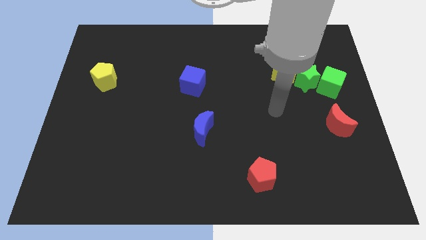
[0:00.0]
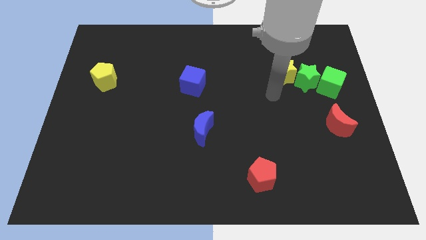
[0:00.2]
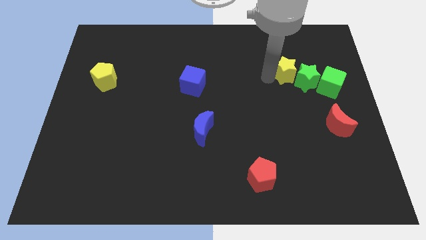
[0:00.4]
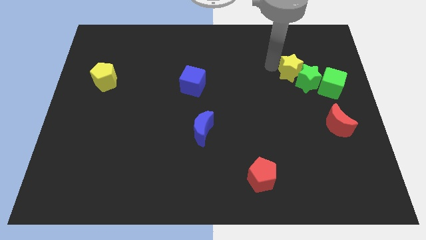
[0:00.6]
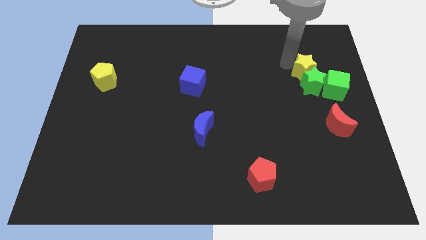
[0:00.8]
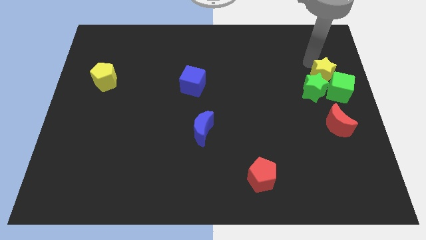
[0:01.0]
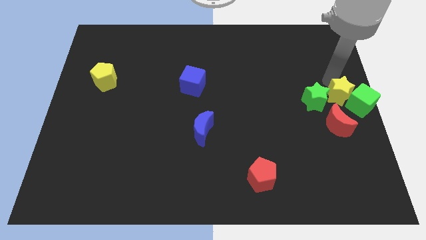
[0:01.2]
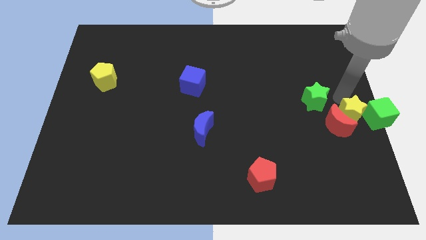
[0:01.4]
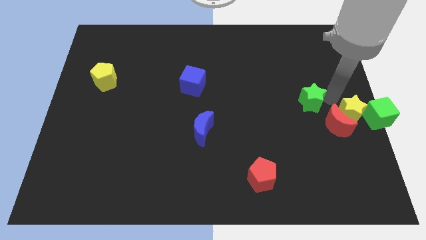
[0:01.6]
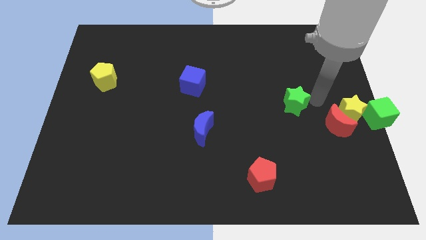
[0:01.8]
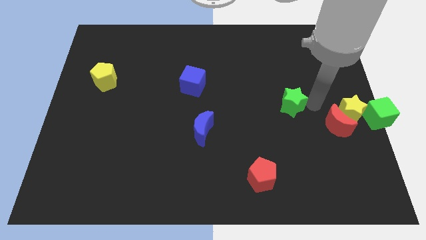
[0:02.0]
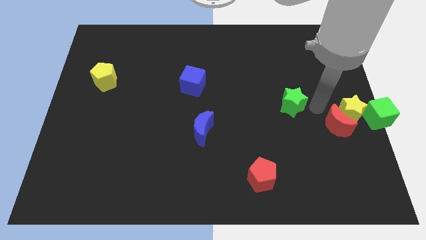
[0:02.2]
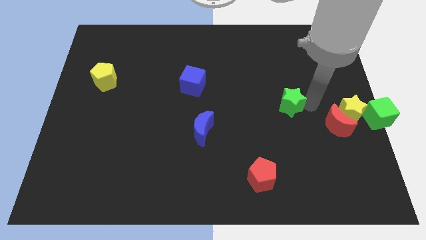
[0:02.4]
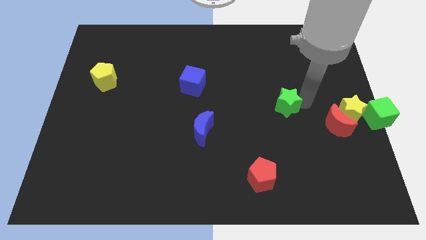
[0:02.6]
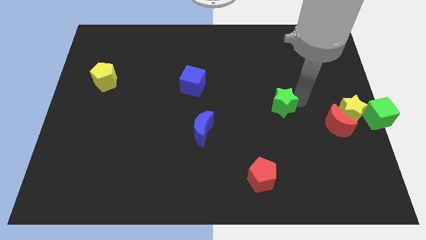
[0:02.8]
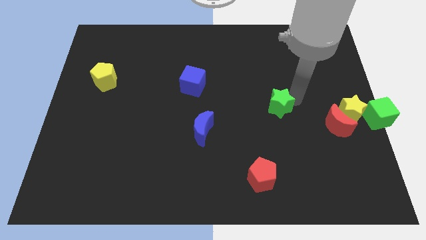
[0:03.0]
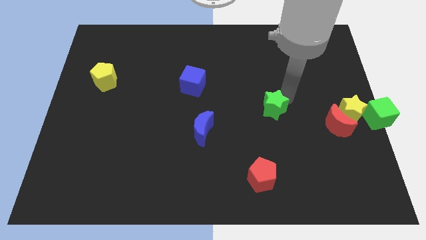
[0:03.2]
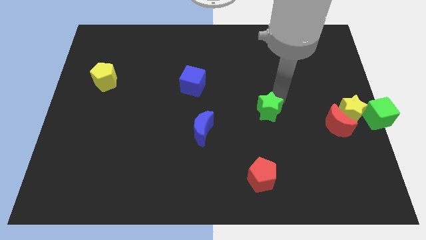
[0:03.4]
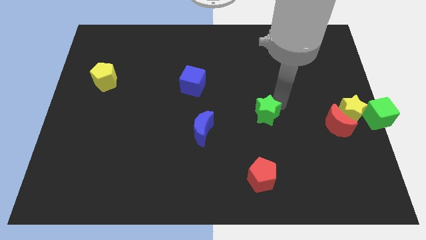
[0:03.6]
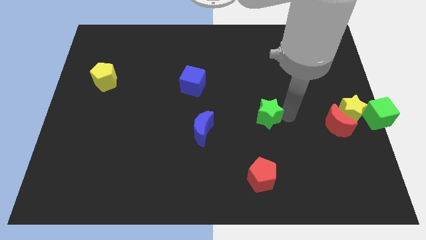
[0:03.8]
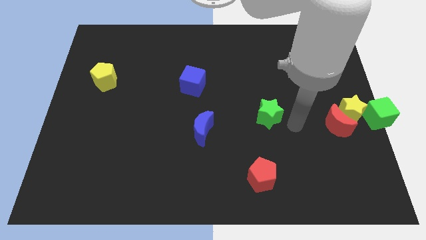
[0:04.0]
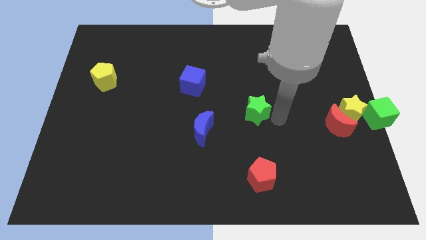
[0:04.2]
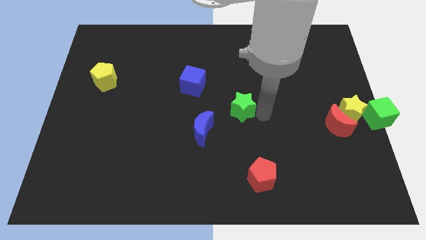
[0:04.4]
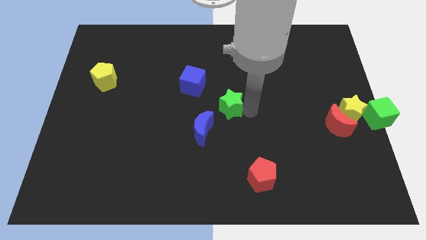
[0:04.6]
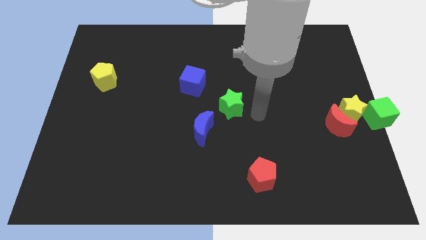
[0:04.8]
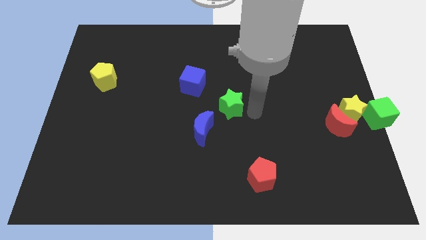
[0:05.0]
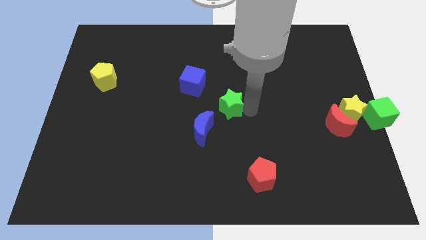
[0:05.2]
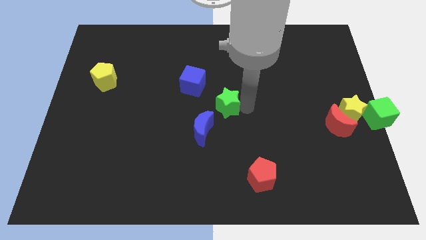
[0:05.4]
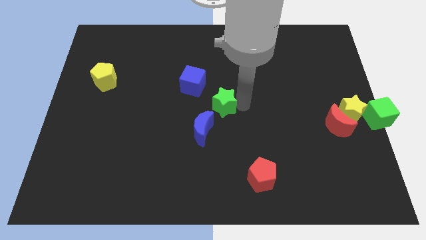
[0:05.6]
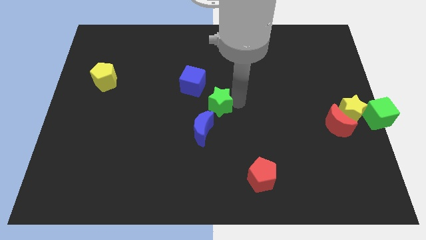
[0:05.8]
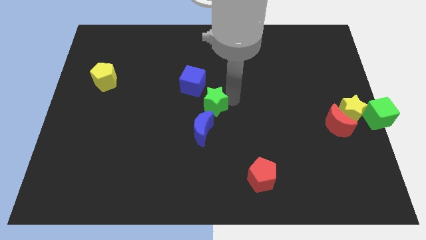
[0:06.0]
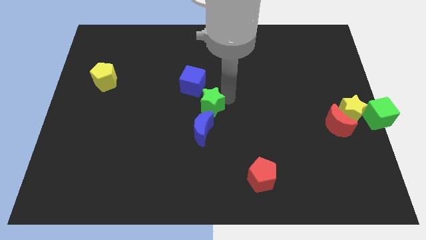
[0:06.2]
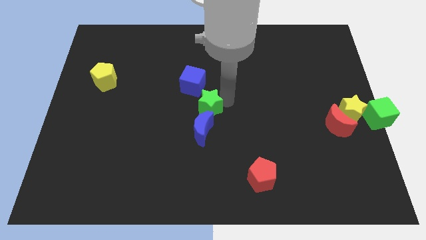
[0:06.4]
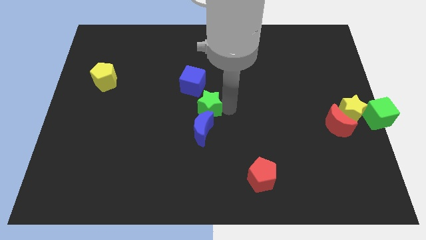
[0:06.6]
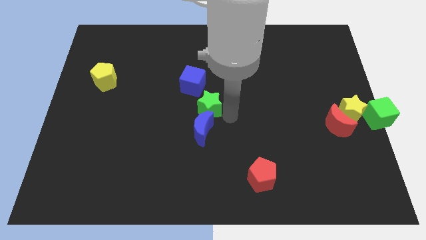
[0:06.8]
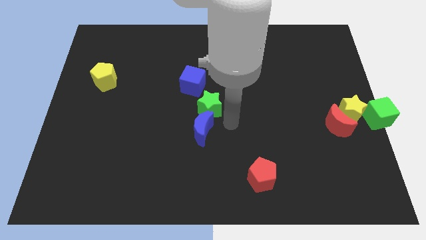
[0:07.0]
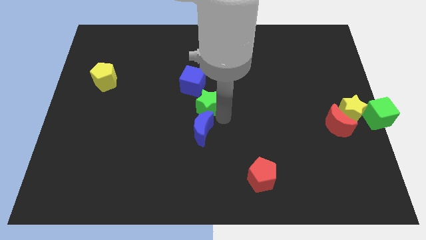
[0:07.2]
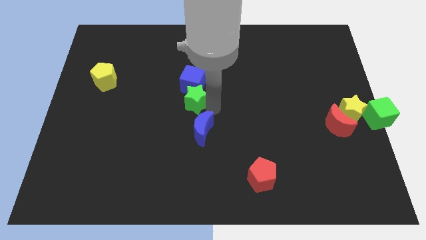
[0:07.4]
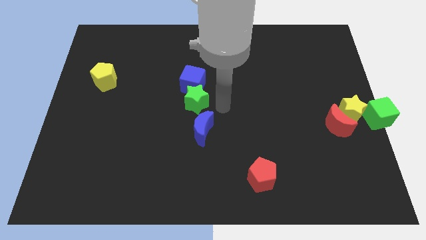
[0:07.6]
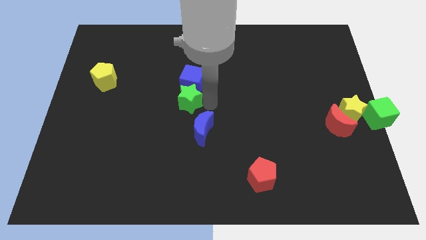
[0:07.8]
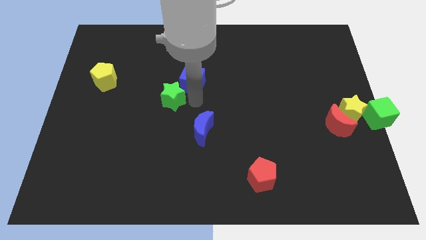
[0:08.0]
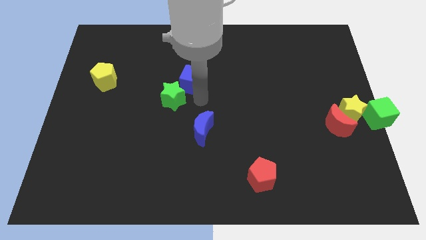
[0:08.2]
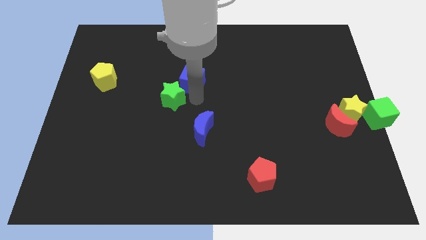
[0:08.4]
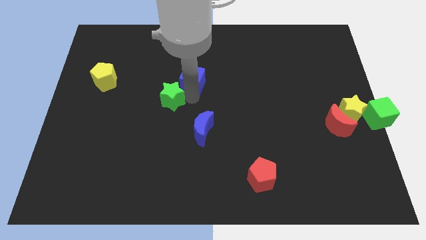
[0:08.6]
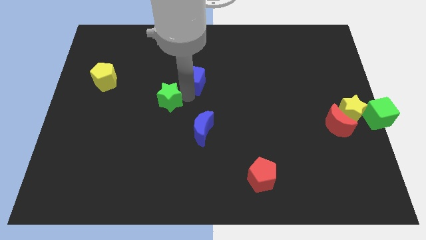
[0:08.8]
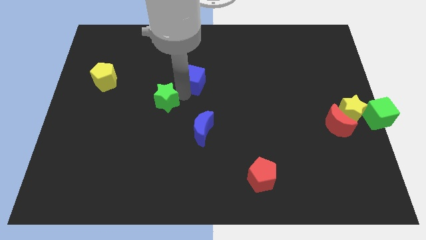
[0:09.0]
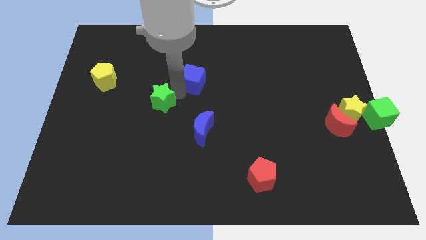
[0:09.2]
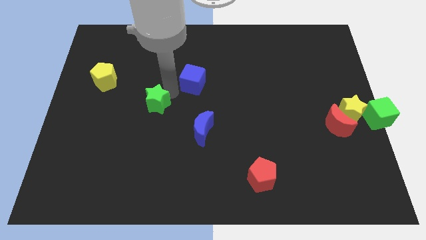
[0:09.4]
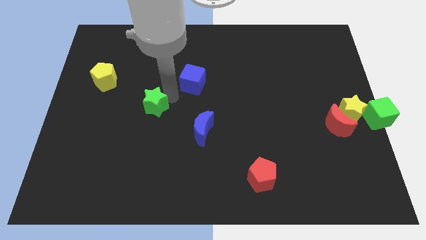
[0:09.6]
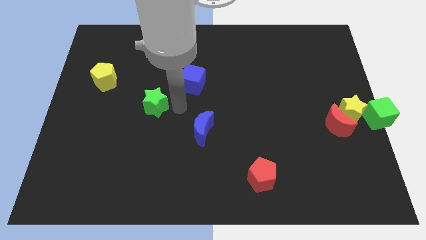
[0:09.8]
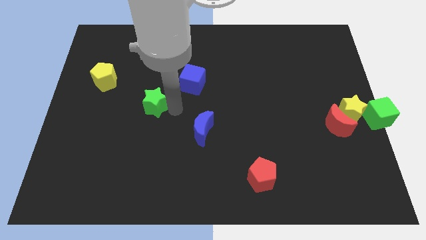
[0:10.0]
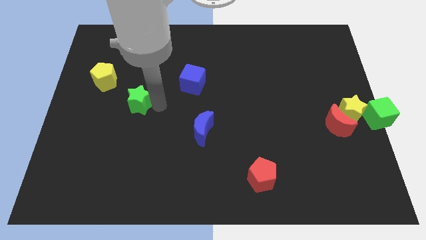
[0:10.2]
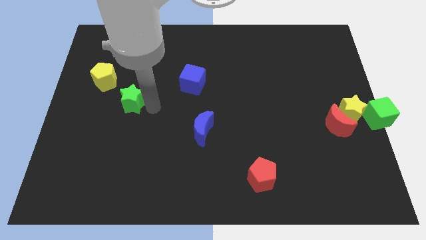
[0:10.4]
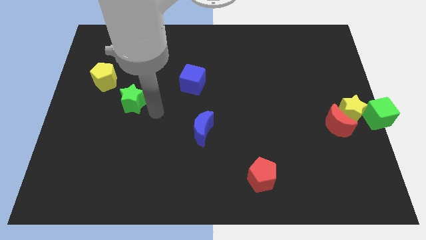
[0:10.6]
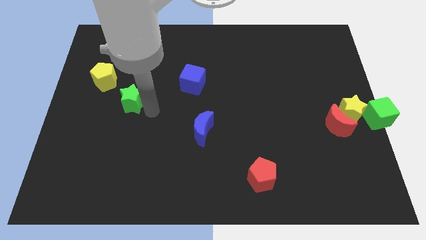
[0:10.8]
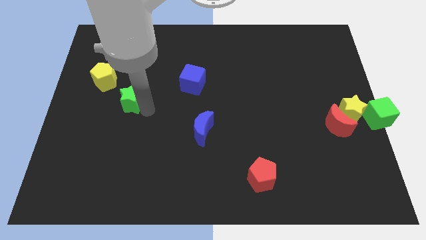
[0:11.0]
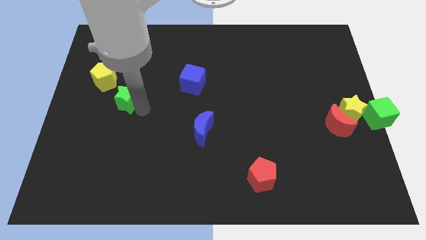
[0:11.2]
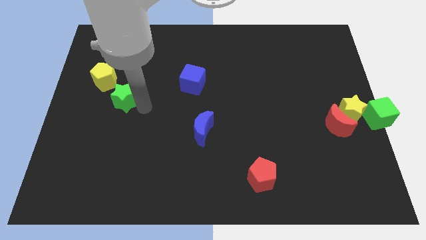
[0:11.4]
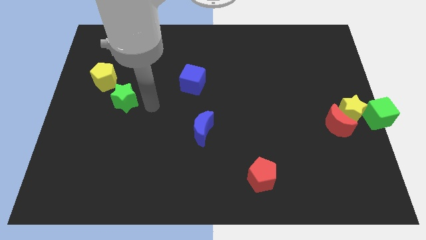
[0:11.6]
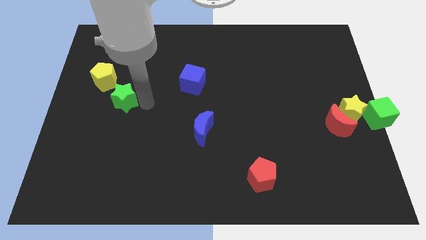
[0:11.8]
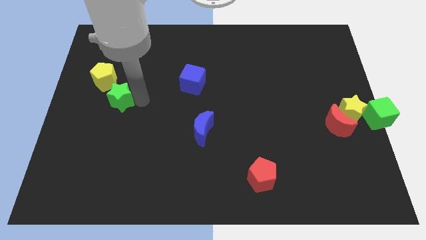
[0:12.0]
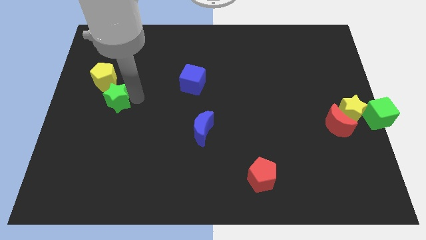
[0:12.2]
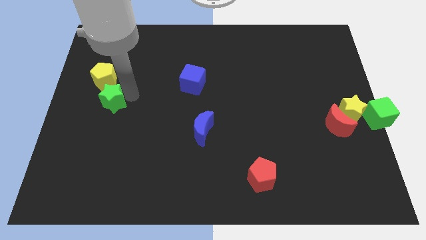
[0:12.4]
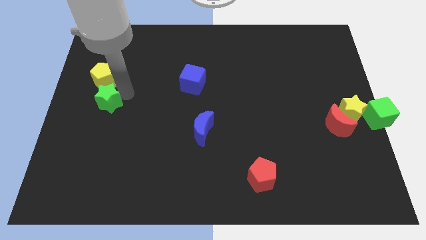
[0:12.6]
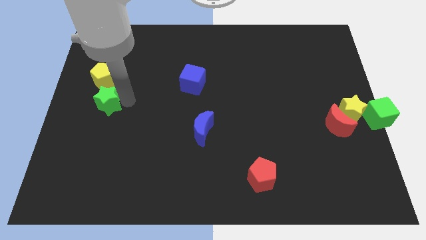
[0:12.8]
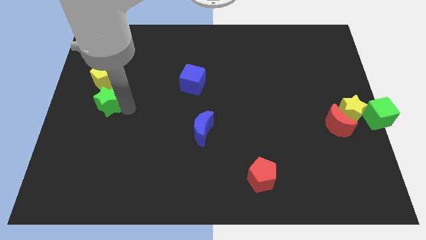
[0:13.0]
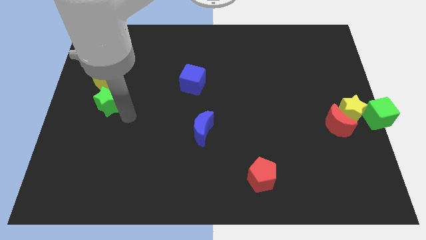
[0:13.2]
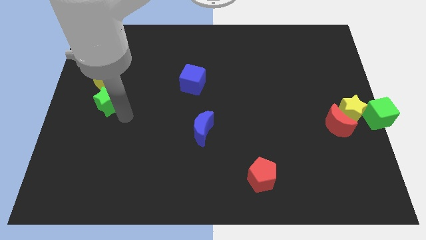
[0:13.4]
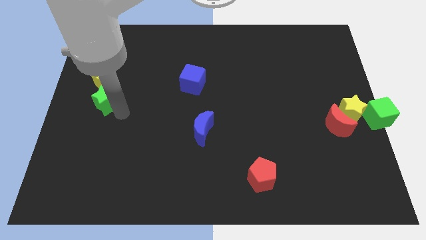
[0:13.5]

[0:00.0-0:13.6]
slide the green star to the left side

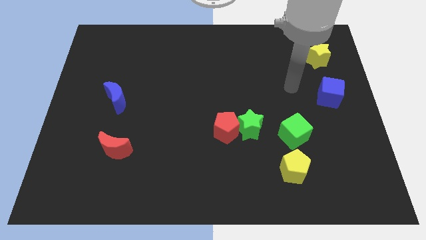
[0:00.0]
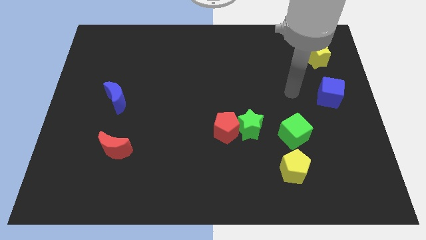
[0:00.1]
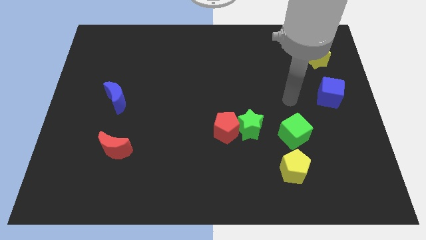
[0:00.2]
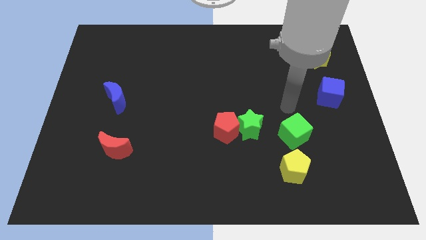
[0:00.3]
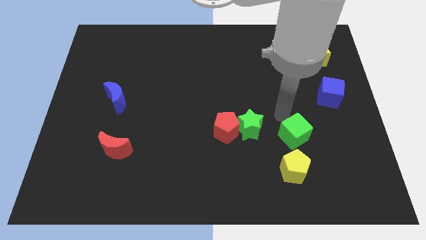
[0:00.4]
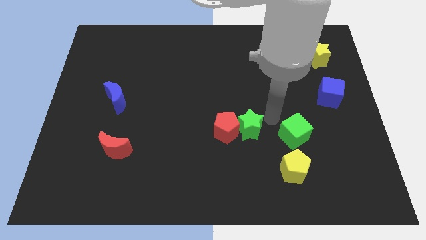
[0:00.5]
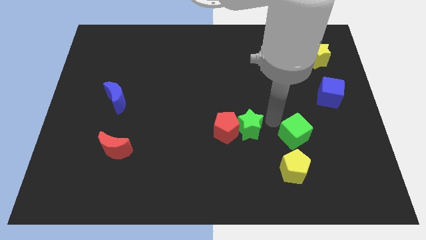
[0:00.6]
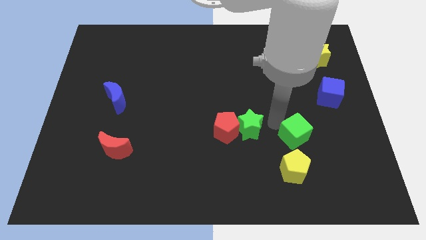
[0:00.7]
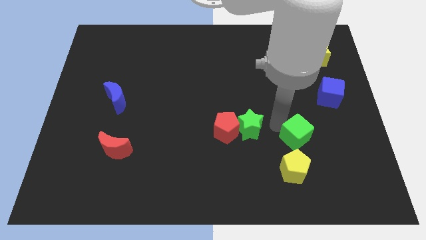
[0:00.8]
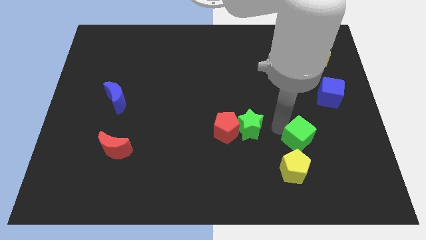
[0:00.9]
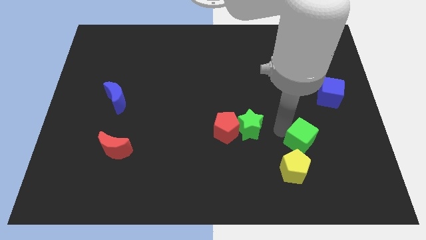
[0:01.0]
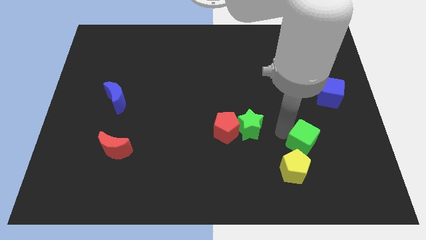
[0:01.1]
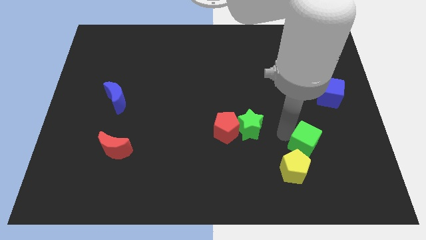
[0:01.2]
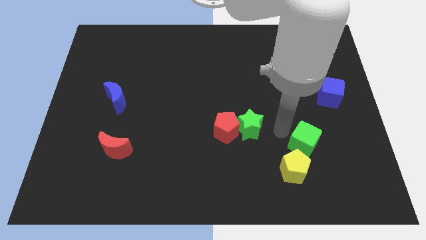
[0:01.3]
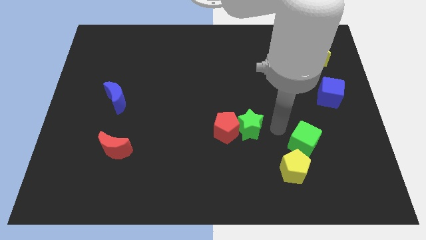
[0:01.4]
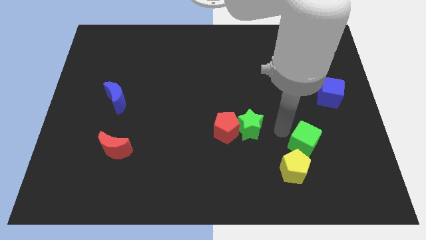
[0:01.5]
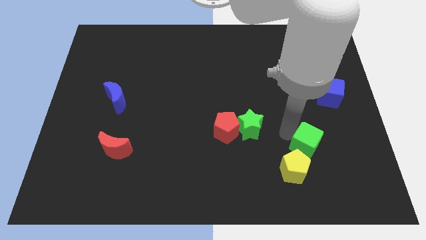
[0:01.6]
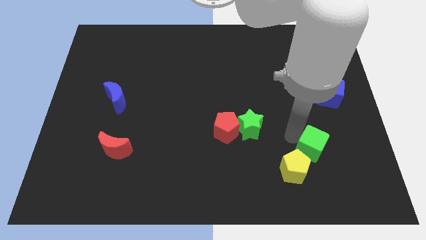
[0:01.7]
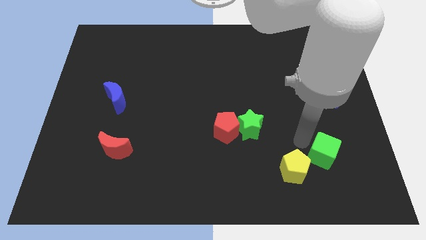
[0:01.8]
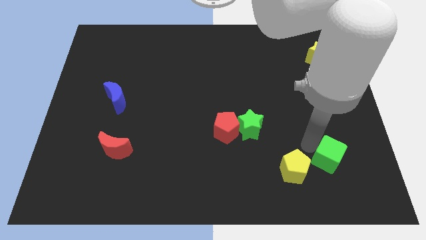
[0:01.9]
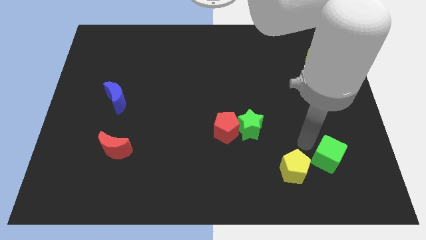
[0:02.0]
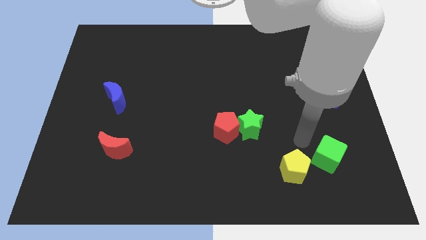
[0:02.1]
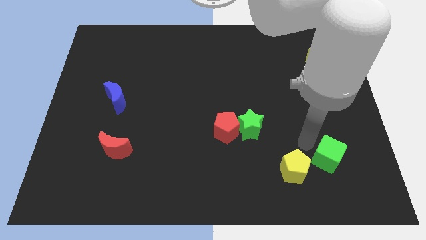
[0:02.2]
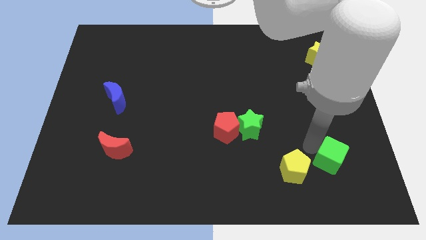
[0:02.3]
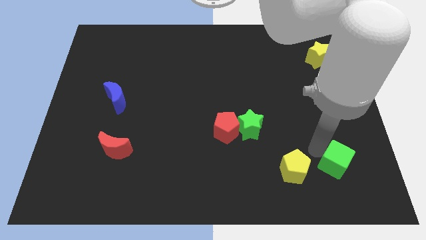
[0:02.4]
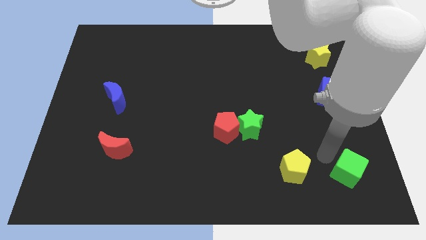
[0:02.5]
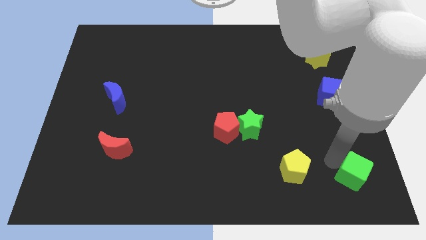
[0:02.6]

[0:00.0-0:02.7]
slide the green cube to the lower right corner
